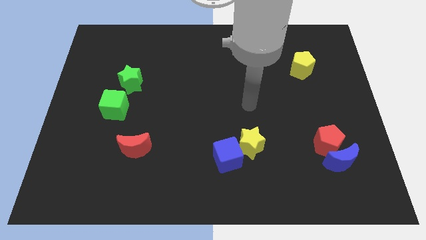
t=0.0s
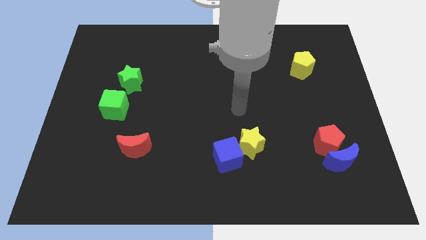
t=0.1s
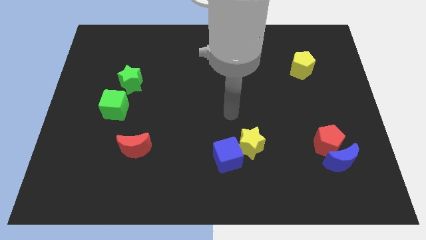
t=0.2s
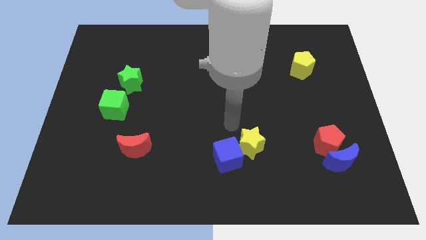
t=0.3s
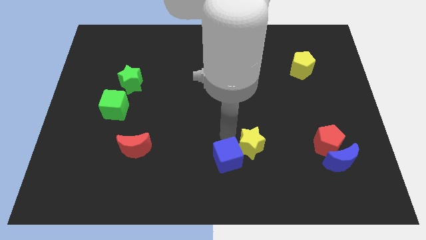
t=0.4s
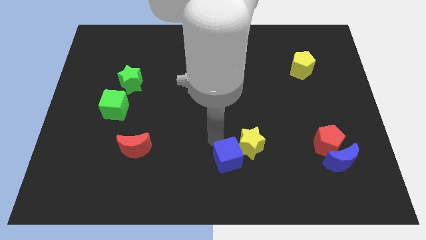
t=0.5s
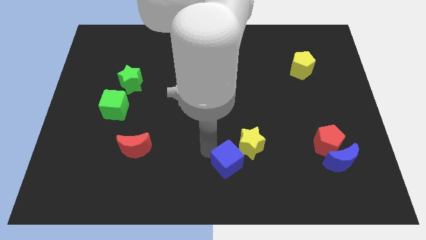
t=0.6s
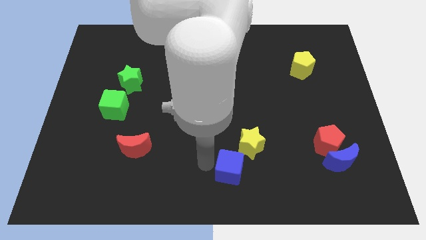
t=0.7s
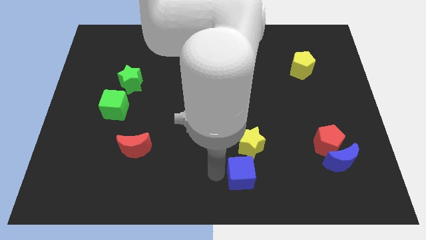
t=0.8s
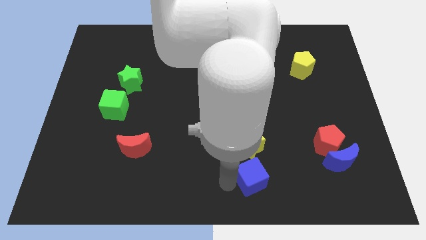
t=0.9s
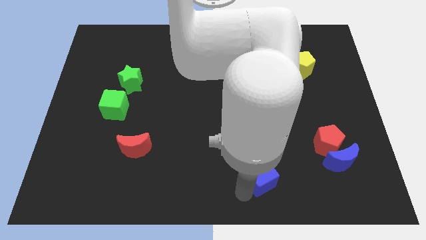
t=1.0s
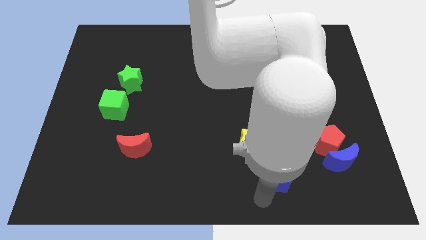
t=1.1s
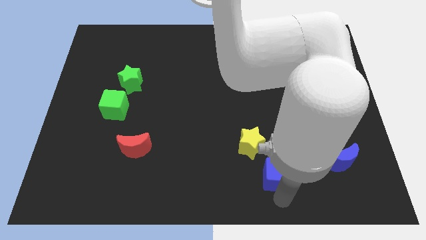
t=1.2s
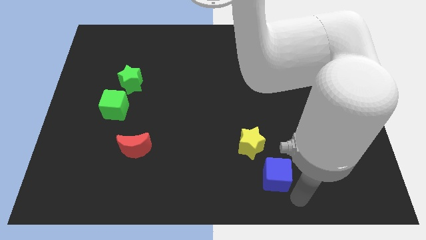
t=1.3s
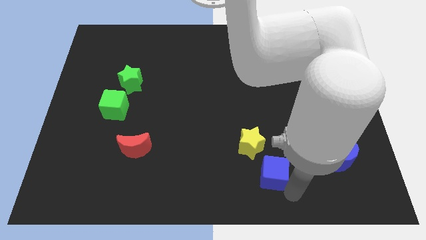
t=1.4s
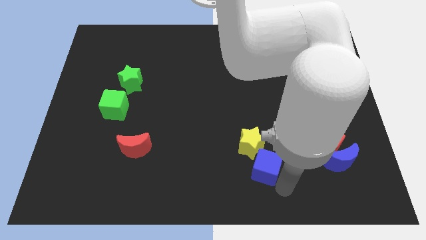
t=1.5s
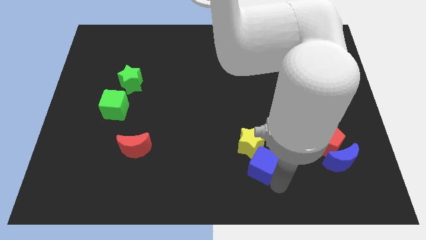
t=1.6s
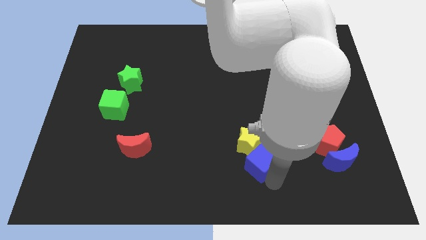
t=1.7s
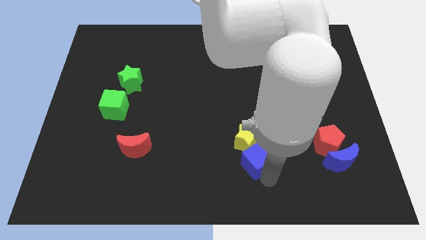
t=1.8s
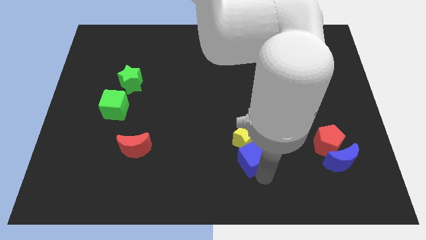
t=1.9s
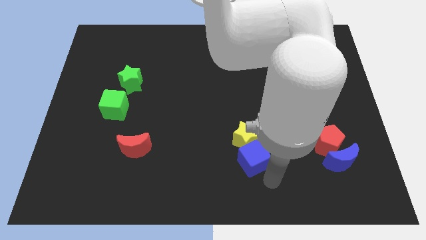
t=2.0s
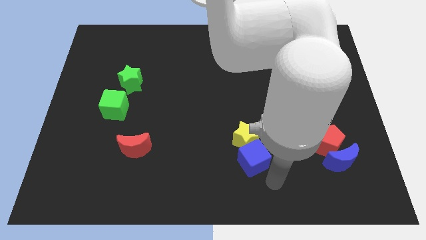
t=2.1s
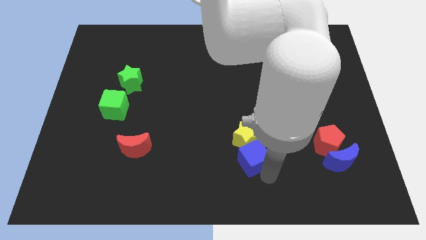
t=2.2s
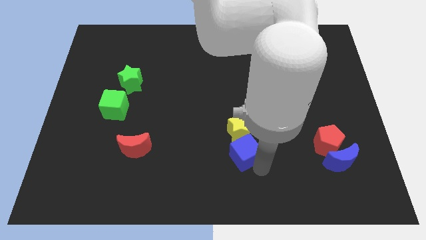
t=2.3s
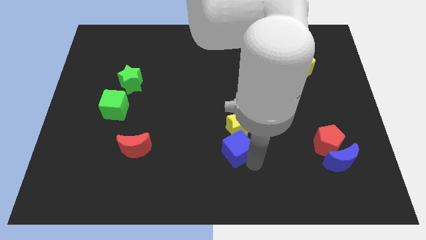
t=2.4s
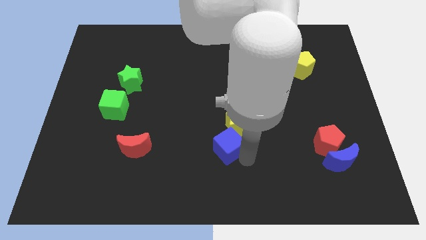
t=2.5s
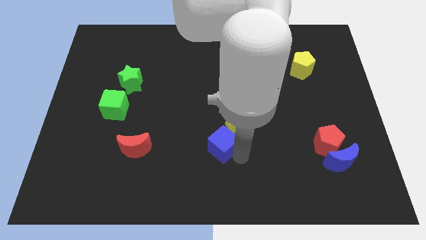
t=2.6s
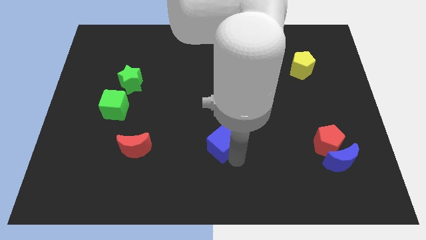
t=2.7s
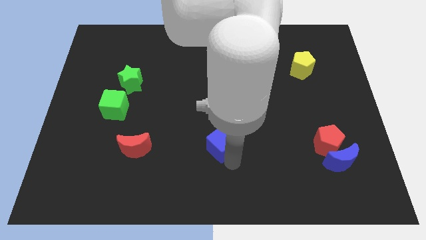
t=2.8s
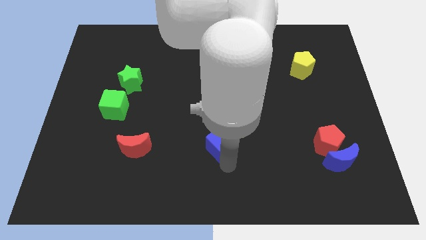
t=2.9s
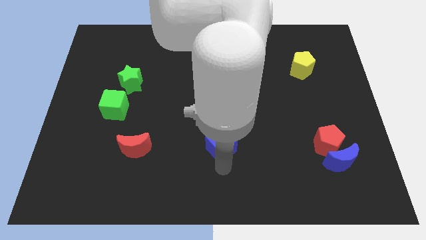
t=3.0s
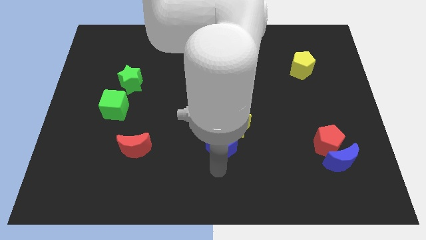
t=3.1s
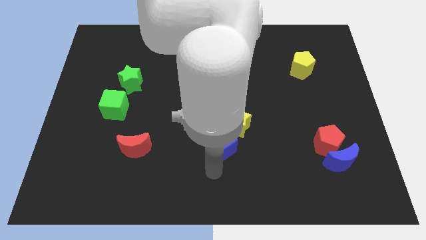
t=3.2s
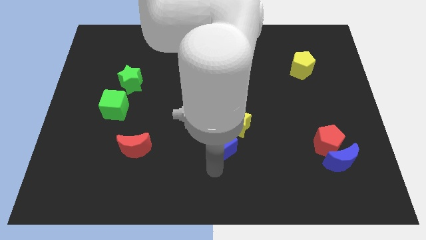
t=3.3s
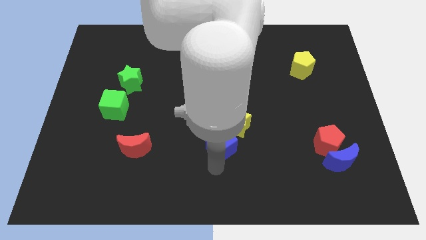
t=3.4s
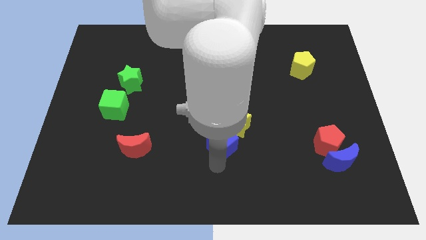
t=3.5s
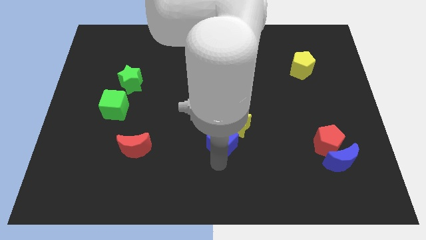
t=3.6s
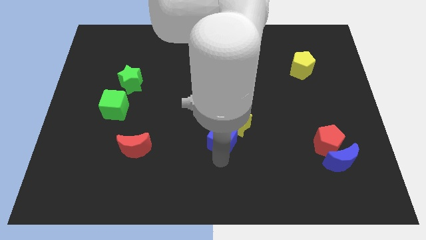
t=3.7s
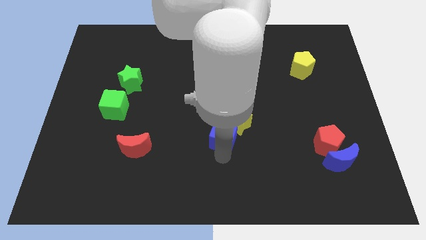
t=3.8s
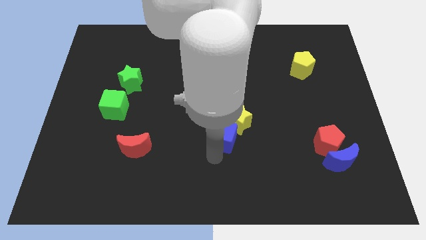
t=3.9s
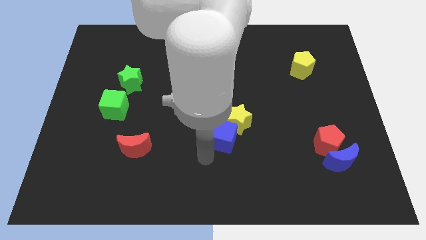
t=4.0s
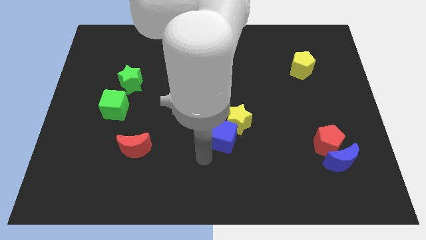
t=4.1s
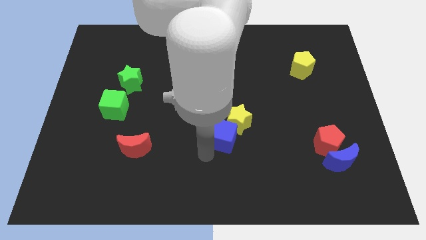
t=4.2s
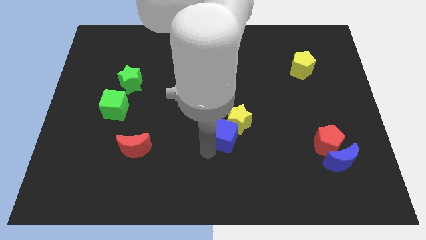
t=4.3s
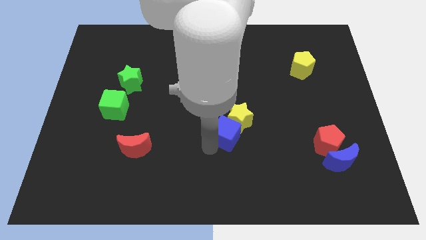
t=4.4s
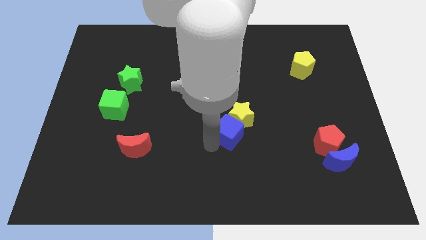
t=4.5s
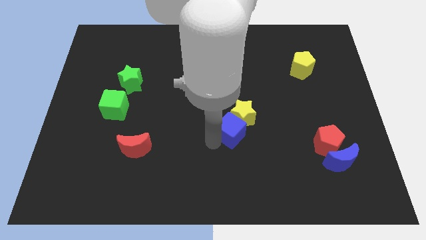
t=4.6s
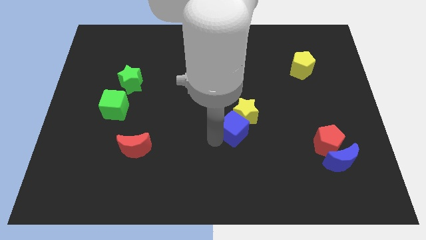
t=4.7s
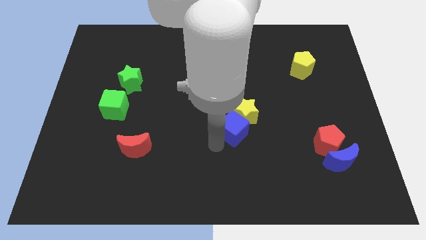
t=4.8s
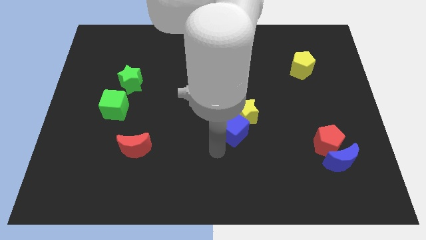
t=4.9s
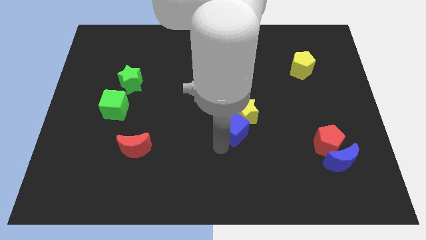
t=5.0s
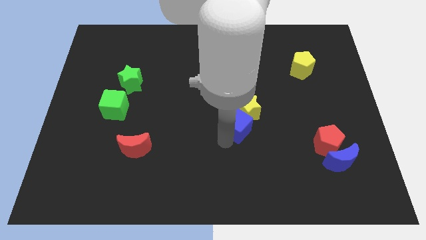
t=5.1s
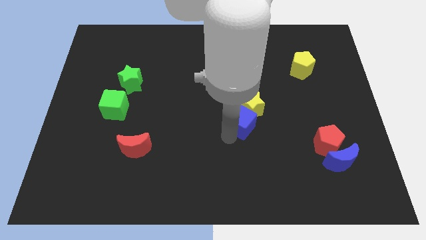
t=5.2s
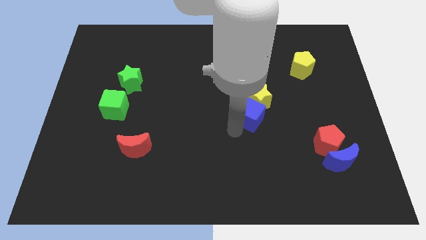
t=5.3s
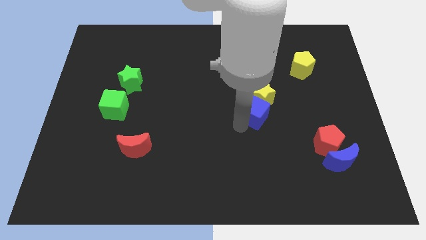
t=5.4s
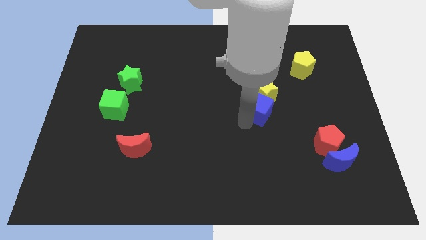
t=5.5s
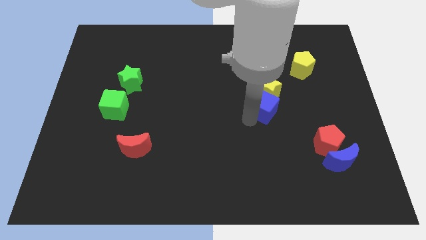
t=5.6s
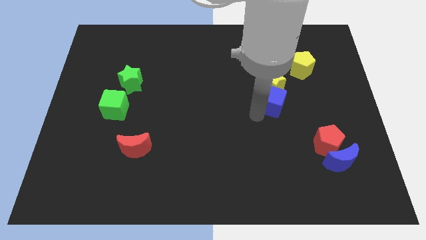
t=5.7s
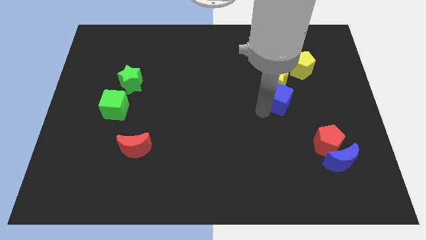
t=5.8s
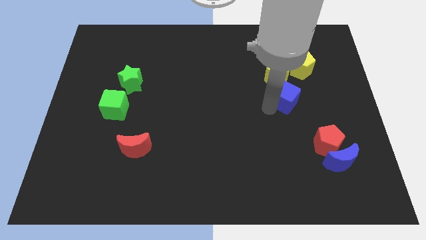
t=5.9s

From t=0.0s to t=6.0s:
push the blue cube to the bottom left side of the yellow pentagon

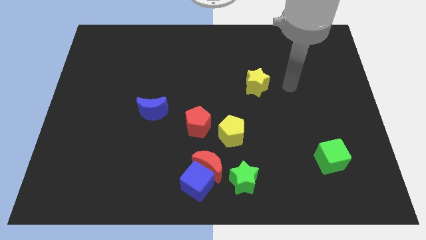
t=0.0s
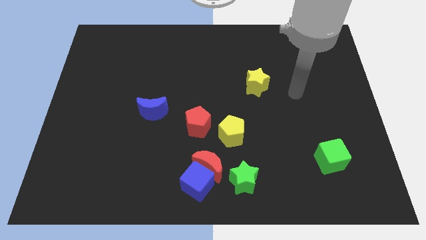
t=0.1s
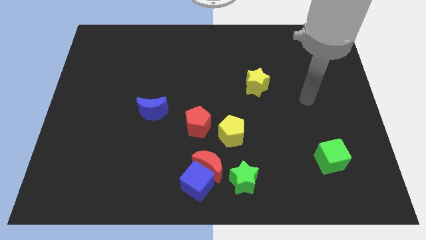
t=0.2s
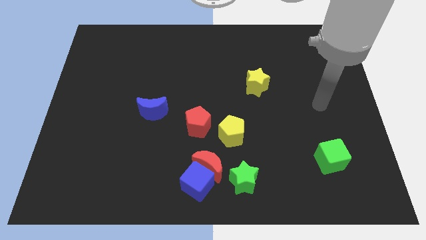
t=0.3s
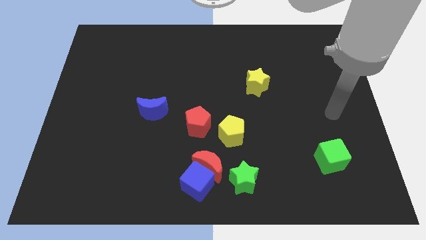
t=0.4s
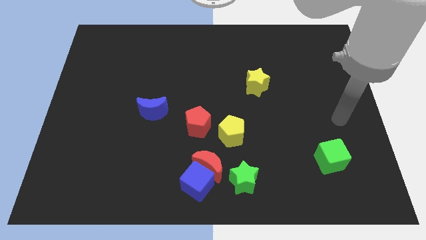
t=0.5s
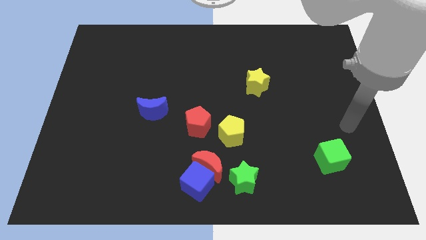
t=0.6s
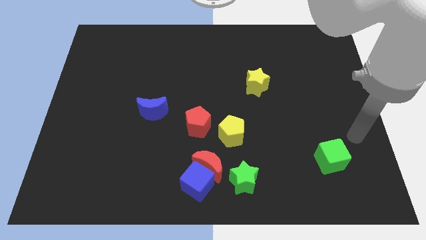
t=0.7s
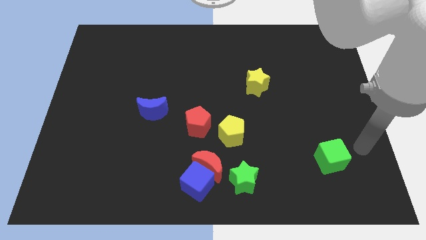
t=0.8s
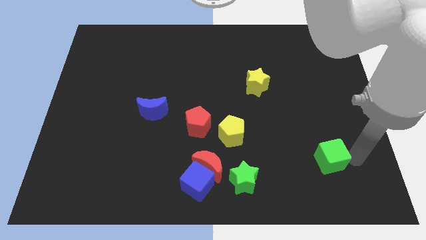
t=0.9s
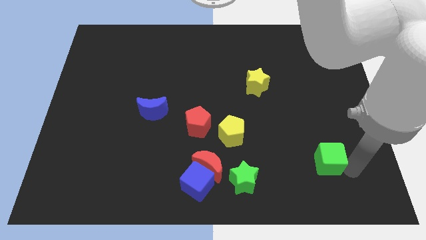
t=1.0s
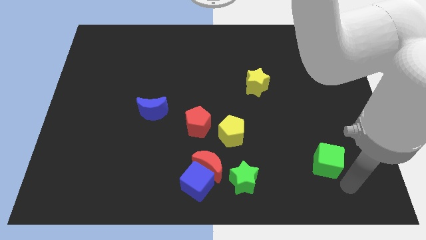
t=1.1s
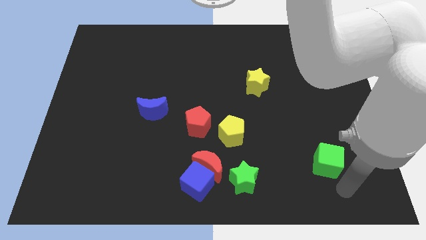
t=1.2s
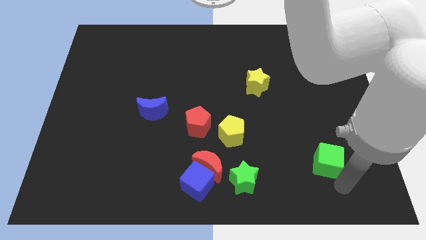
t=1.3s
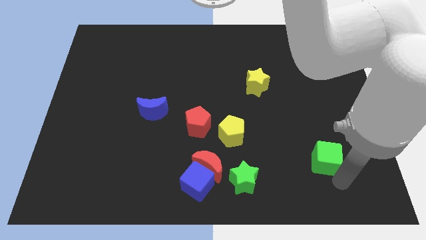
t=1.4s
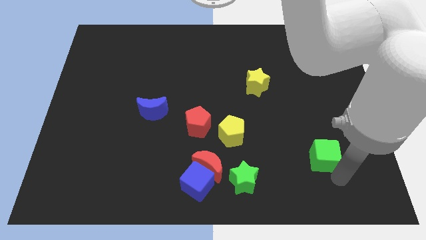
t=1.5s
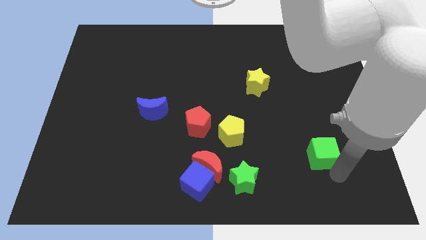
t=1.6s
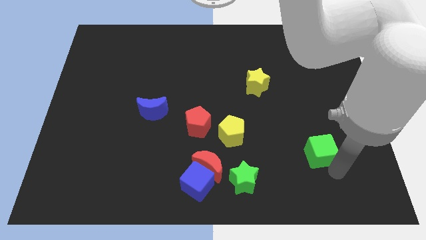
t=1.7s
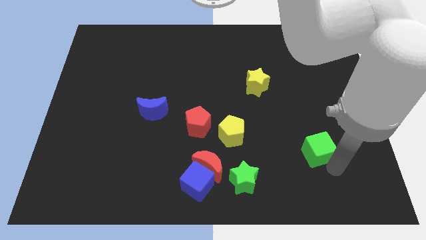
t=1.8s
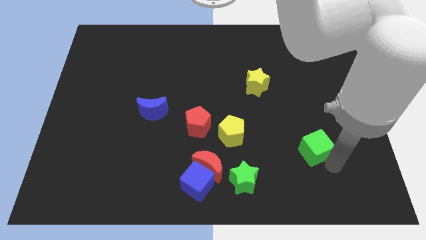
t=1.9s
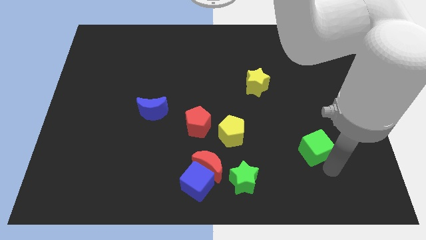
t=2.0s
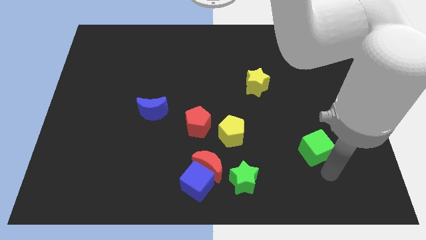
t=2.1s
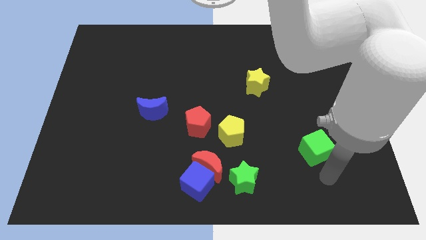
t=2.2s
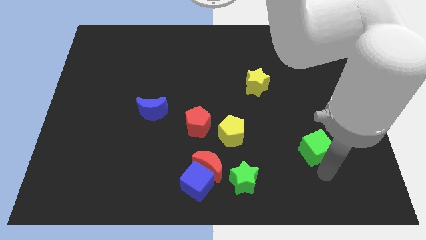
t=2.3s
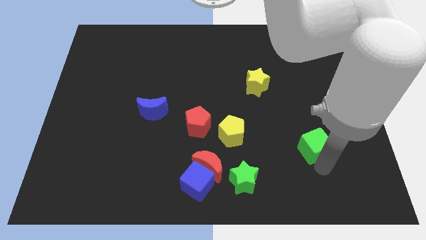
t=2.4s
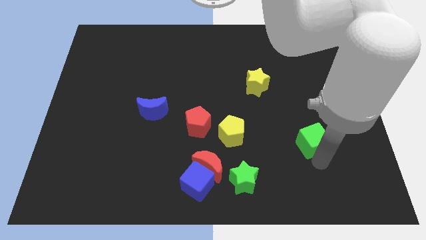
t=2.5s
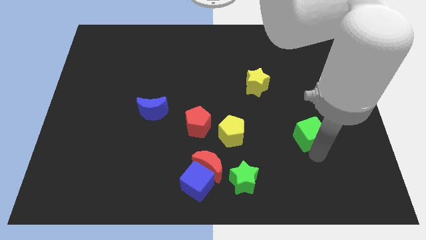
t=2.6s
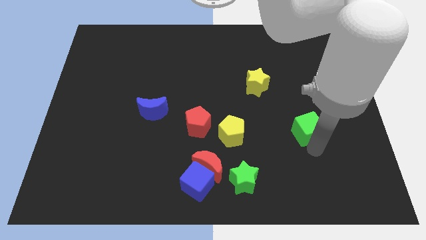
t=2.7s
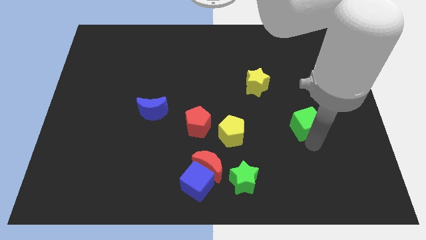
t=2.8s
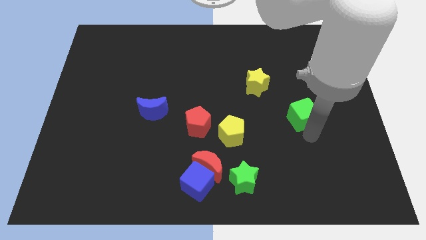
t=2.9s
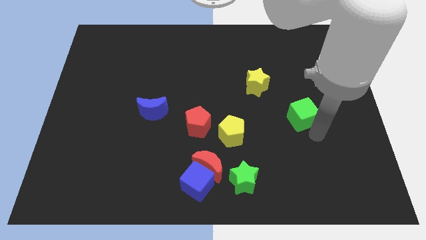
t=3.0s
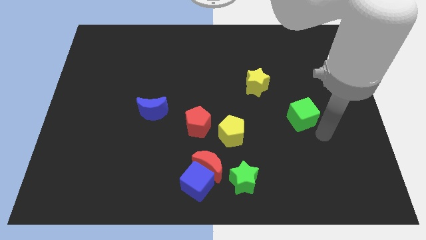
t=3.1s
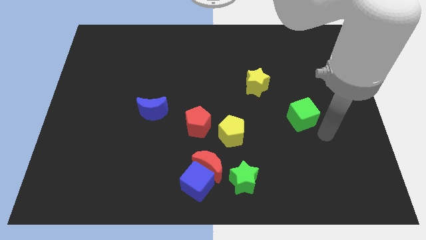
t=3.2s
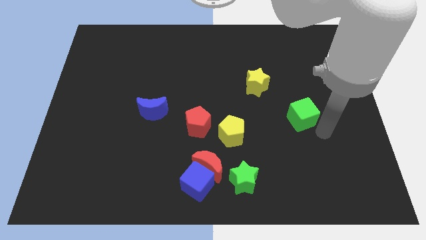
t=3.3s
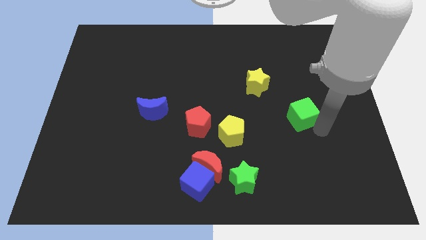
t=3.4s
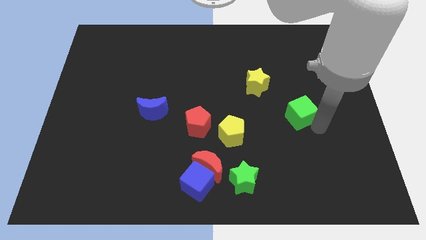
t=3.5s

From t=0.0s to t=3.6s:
push the green cube to the bottom right of the yellow star
